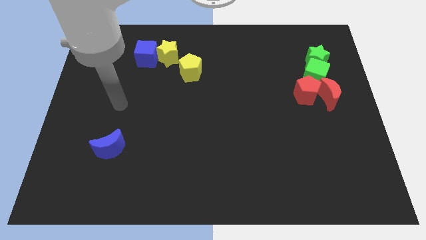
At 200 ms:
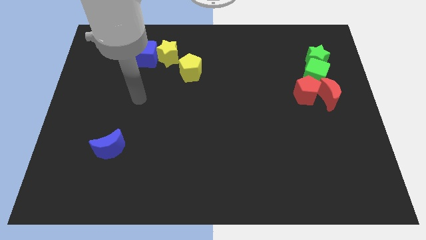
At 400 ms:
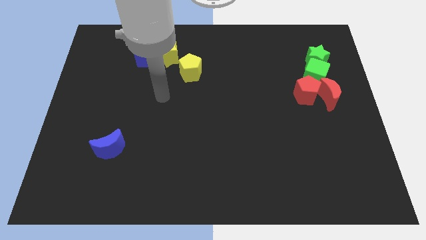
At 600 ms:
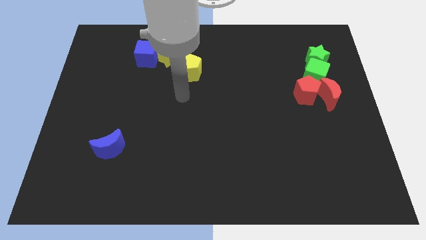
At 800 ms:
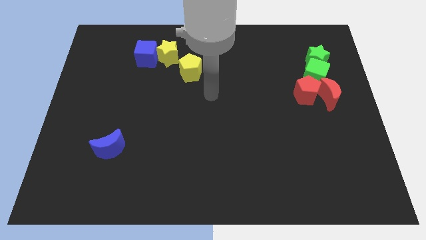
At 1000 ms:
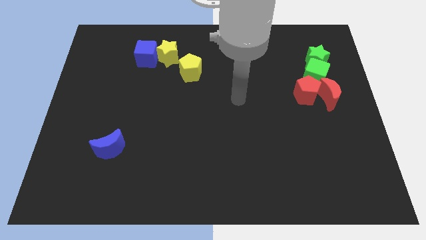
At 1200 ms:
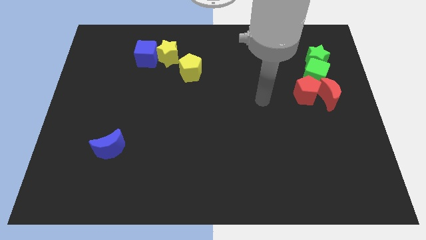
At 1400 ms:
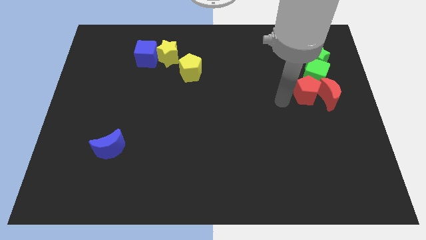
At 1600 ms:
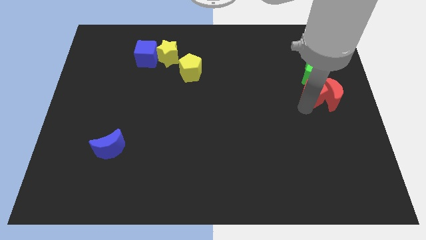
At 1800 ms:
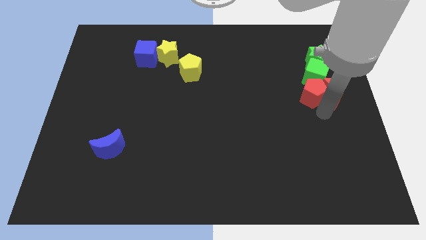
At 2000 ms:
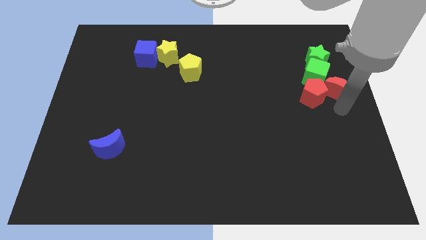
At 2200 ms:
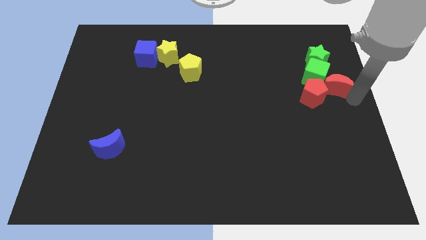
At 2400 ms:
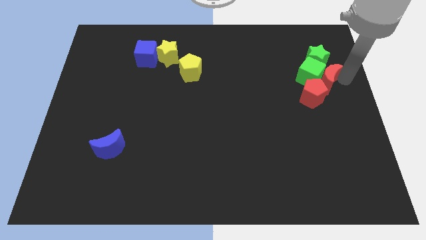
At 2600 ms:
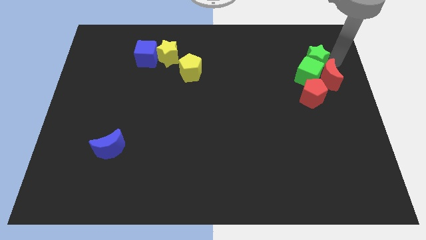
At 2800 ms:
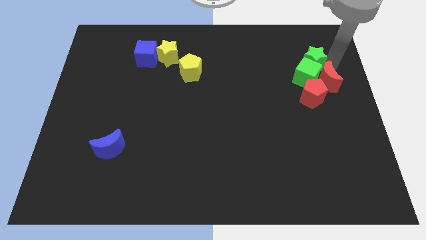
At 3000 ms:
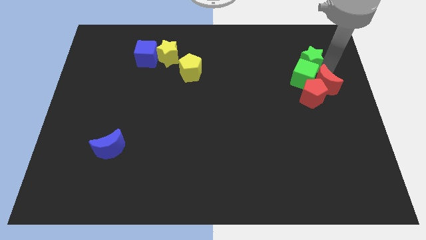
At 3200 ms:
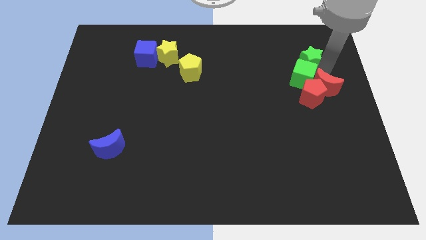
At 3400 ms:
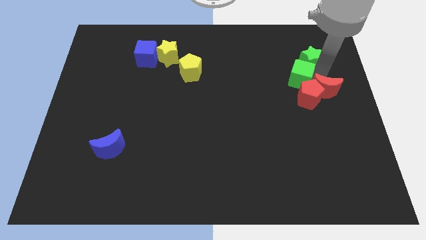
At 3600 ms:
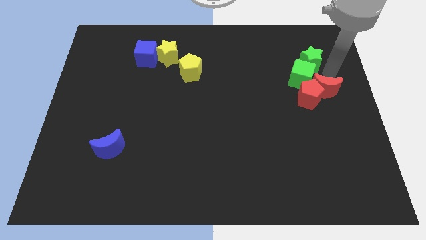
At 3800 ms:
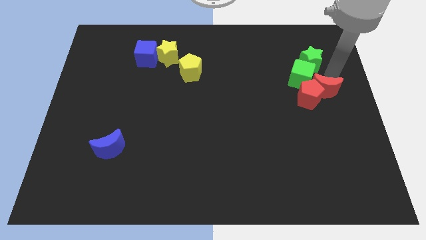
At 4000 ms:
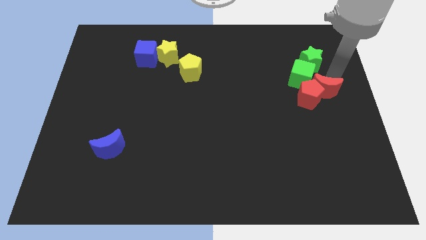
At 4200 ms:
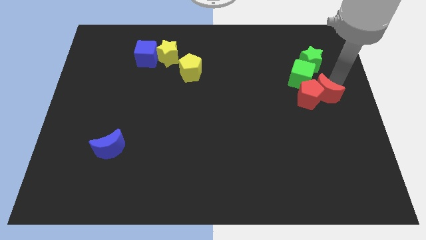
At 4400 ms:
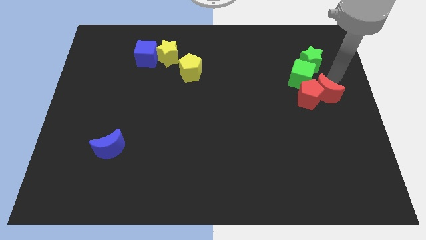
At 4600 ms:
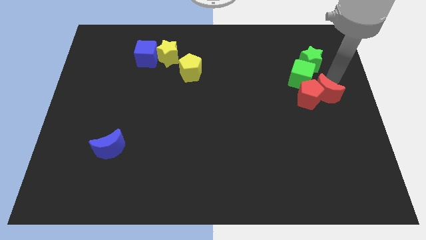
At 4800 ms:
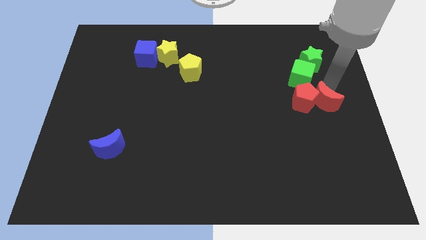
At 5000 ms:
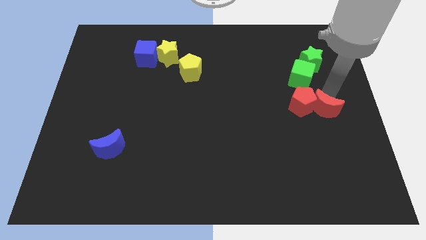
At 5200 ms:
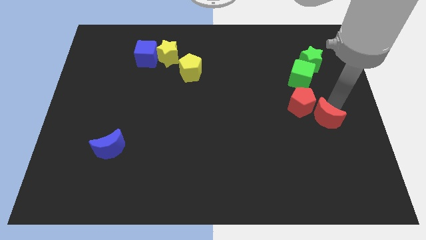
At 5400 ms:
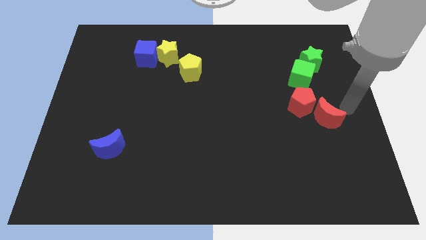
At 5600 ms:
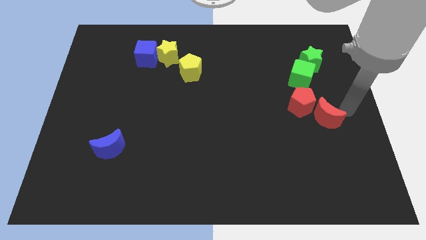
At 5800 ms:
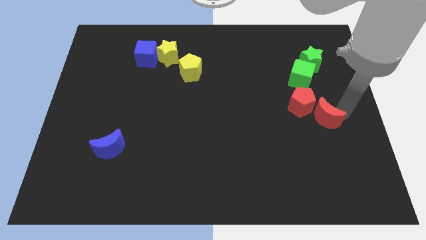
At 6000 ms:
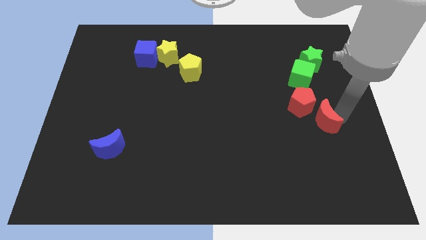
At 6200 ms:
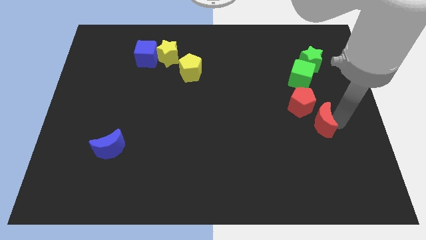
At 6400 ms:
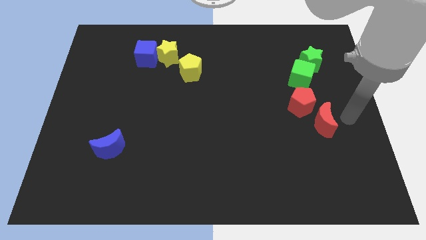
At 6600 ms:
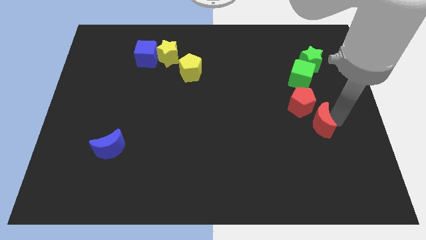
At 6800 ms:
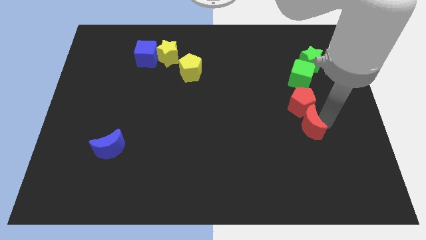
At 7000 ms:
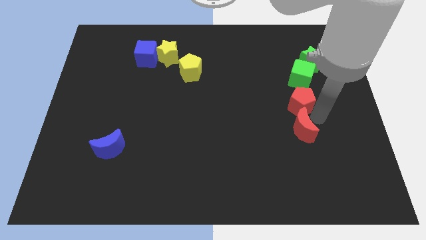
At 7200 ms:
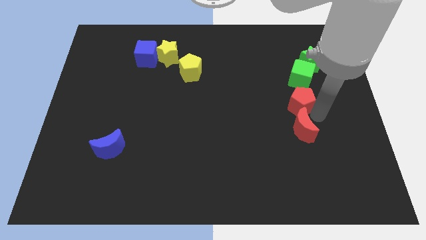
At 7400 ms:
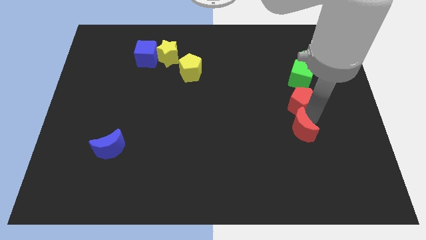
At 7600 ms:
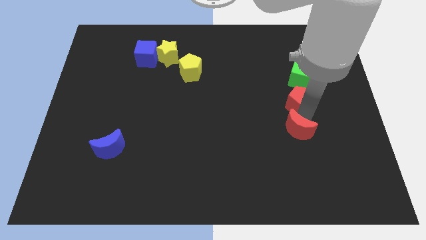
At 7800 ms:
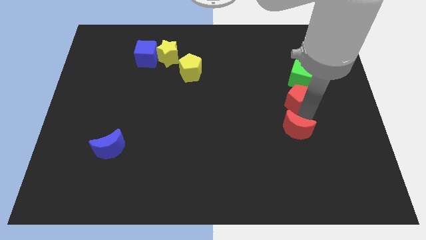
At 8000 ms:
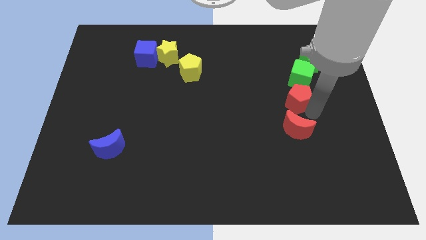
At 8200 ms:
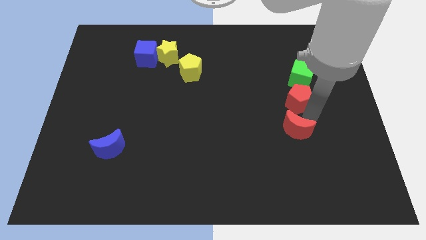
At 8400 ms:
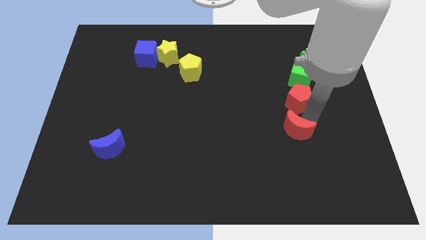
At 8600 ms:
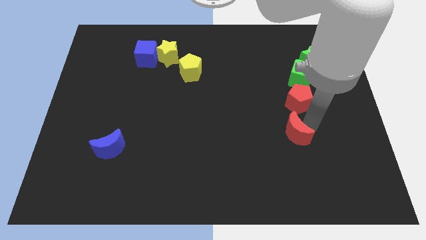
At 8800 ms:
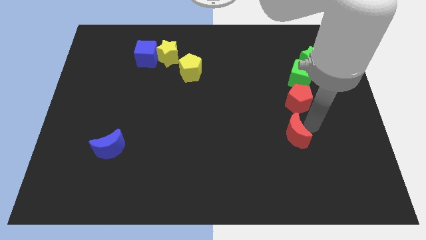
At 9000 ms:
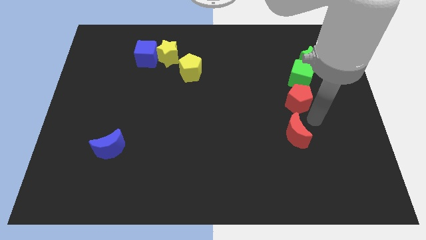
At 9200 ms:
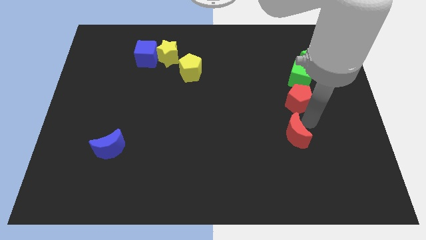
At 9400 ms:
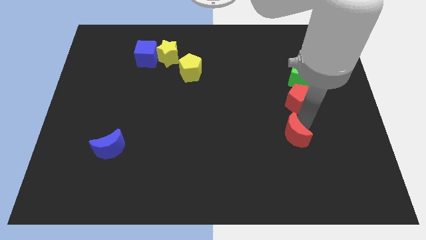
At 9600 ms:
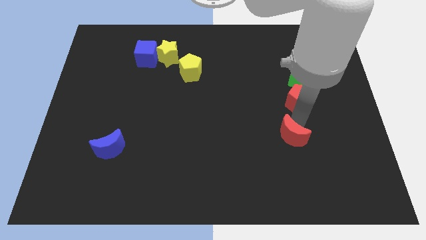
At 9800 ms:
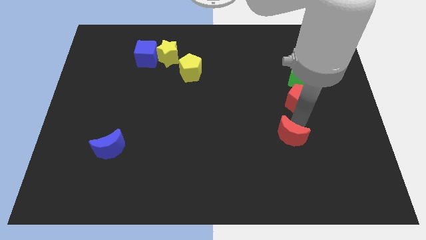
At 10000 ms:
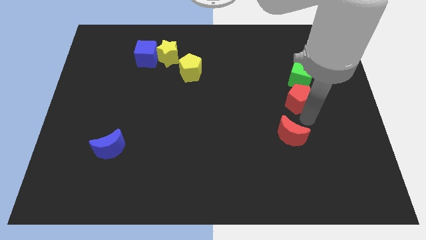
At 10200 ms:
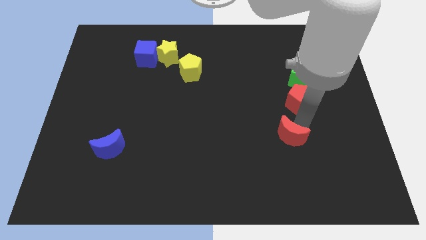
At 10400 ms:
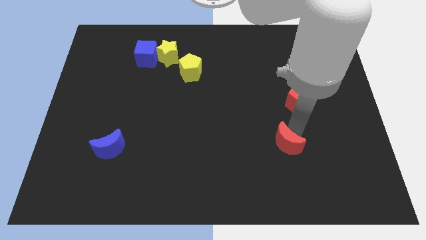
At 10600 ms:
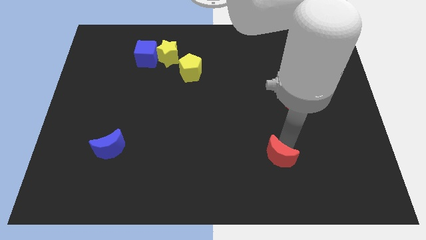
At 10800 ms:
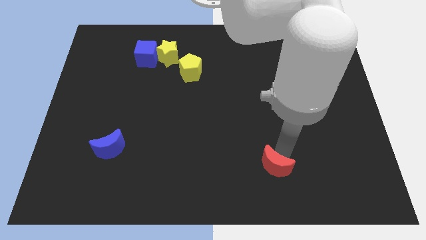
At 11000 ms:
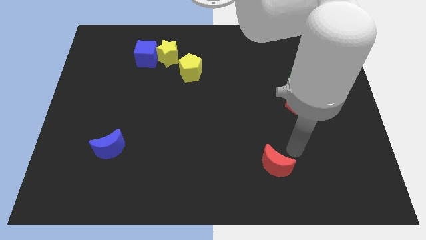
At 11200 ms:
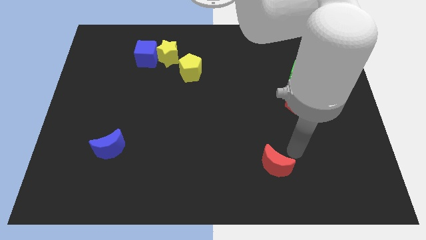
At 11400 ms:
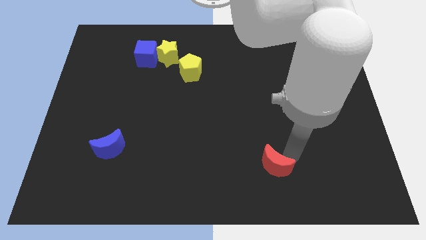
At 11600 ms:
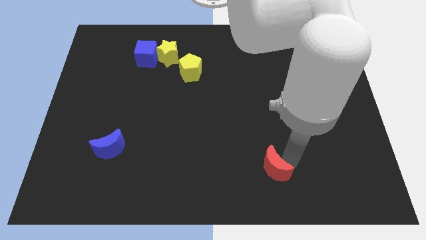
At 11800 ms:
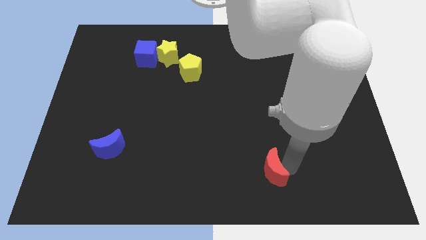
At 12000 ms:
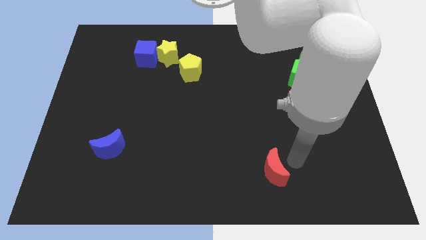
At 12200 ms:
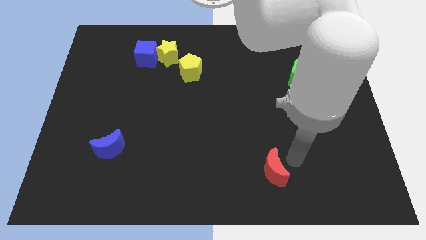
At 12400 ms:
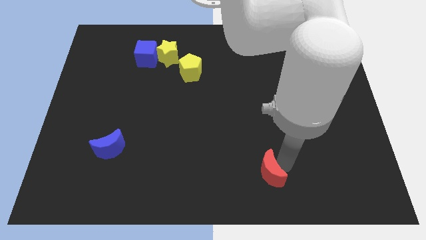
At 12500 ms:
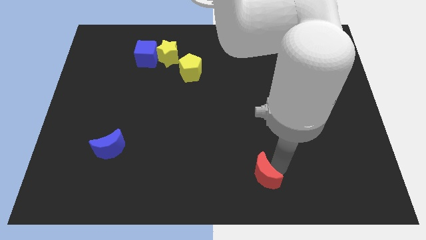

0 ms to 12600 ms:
put the red moon to the bottom
